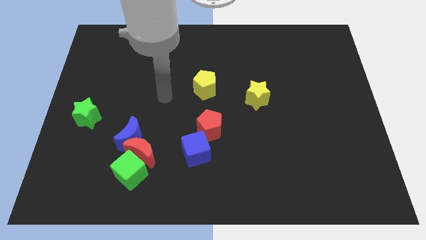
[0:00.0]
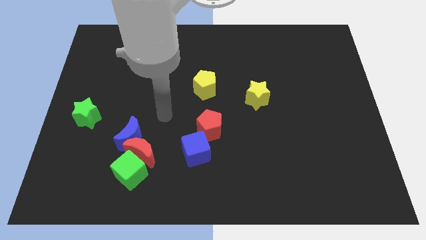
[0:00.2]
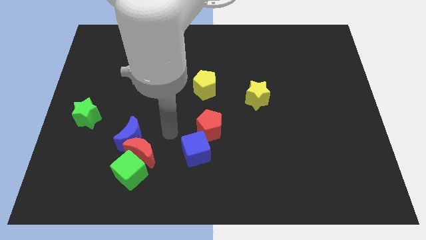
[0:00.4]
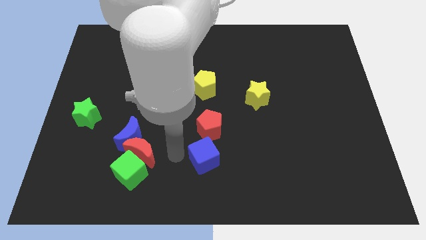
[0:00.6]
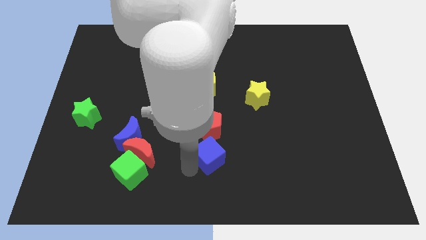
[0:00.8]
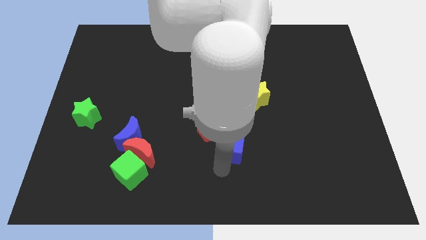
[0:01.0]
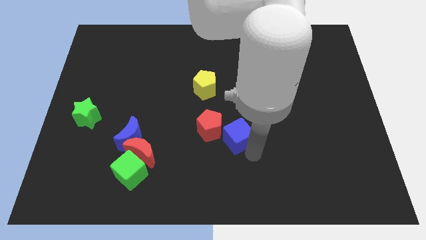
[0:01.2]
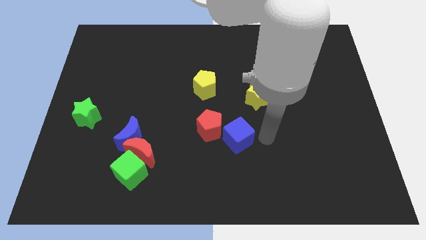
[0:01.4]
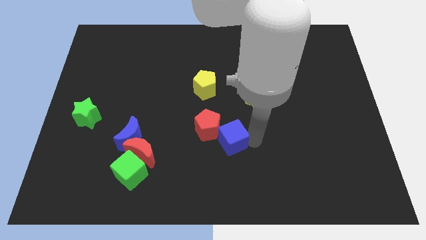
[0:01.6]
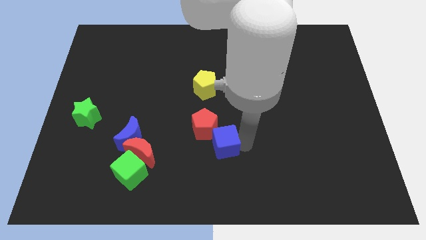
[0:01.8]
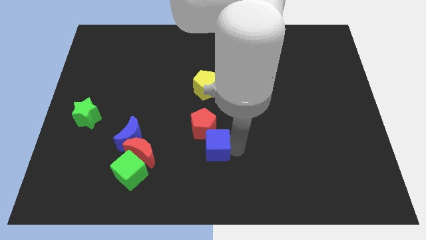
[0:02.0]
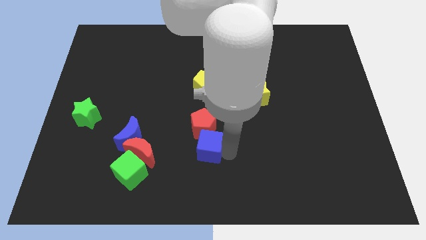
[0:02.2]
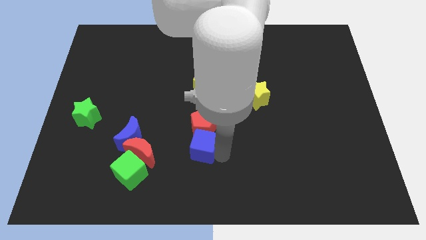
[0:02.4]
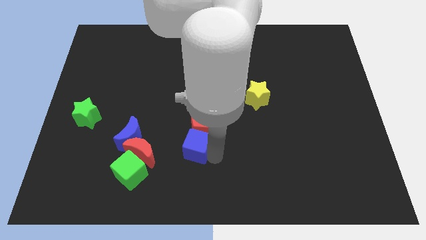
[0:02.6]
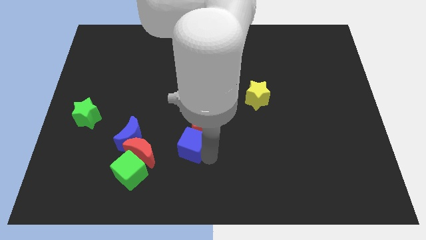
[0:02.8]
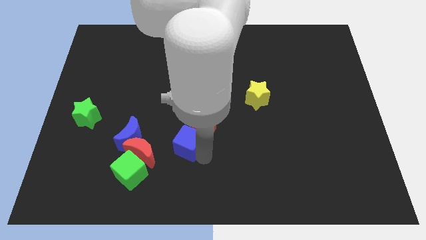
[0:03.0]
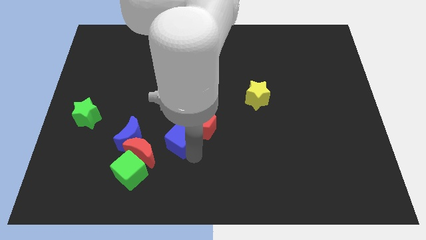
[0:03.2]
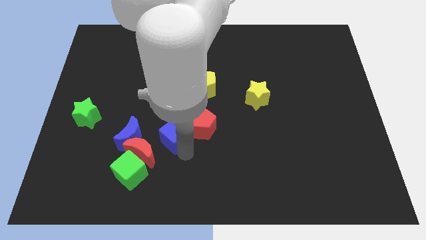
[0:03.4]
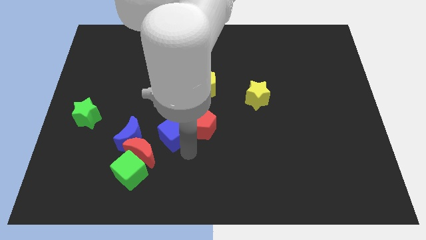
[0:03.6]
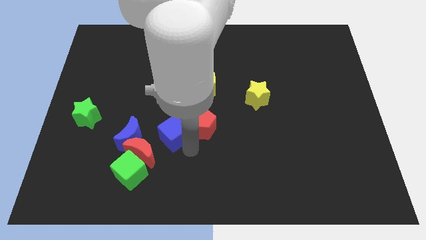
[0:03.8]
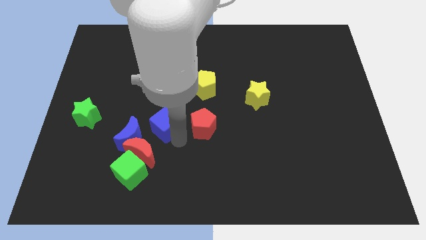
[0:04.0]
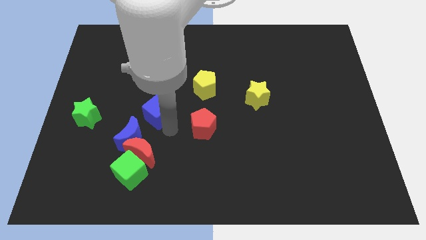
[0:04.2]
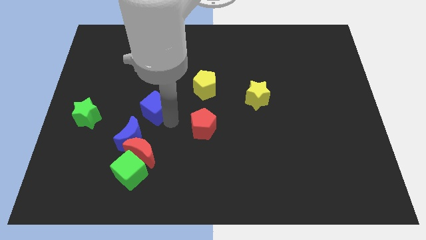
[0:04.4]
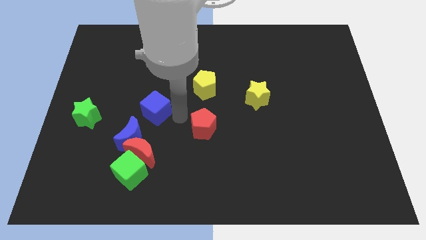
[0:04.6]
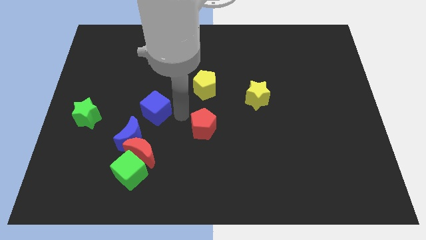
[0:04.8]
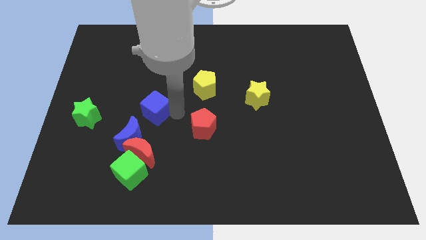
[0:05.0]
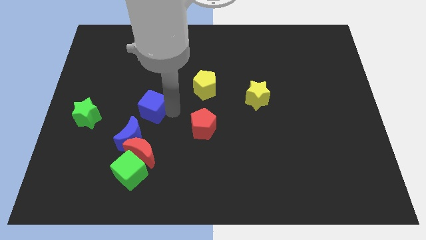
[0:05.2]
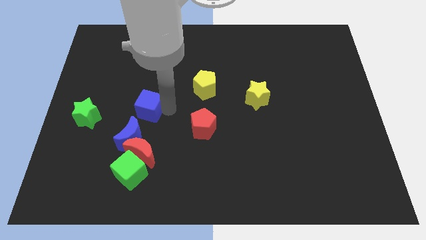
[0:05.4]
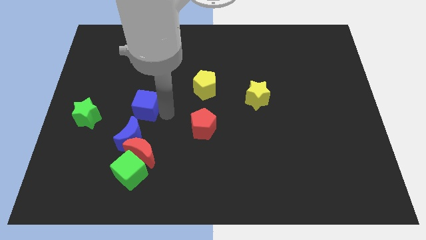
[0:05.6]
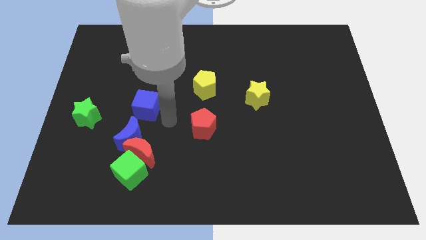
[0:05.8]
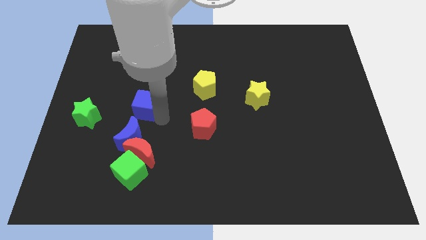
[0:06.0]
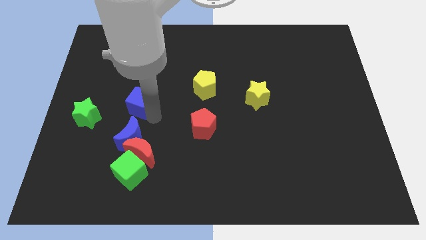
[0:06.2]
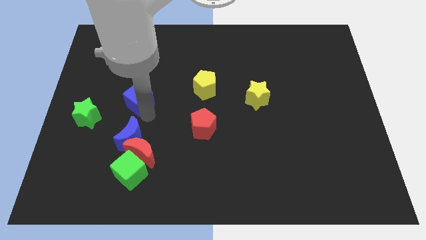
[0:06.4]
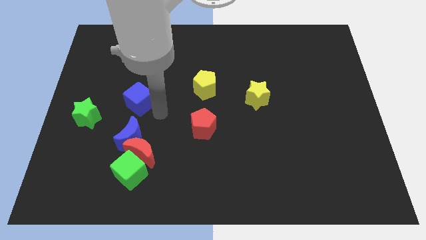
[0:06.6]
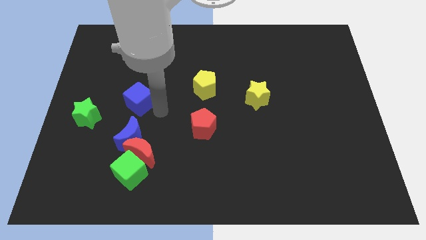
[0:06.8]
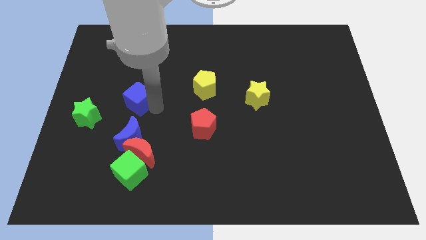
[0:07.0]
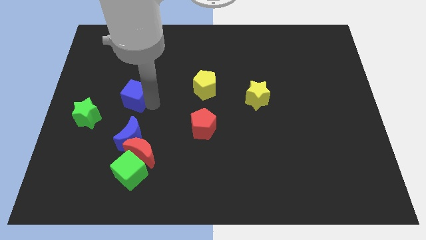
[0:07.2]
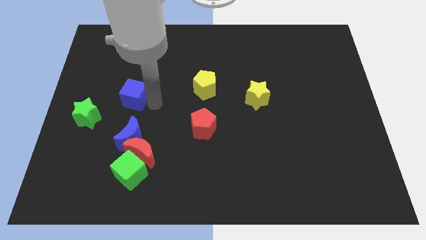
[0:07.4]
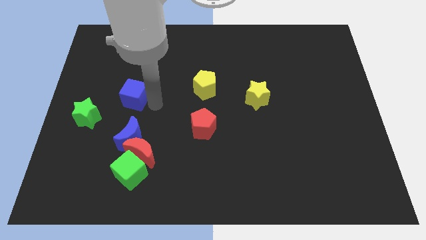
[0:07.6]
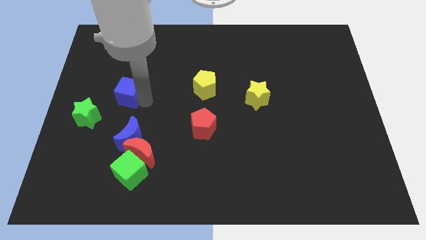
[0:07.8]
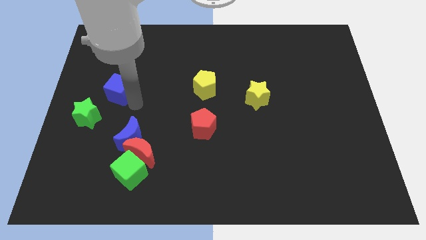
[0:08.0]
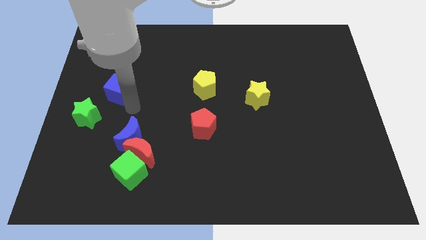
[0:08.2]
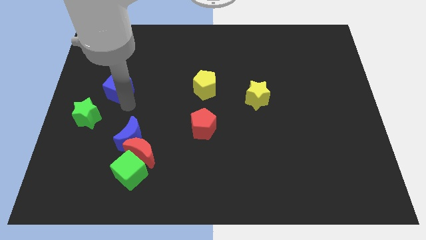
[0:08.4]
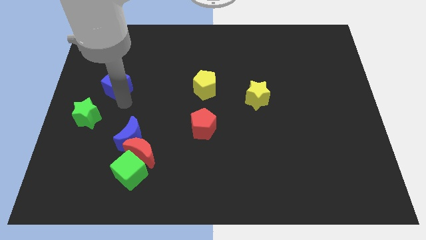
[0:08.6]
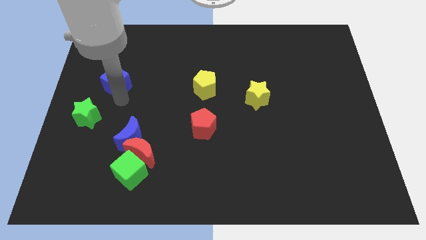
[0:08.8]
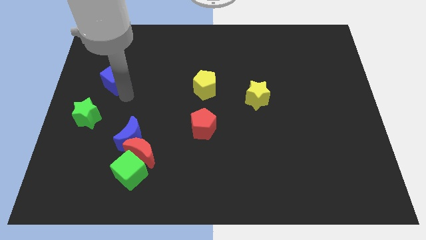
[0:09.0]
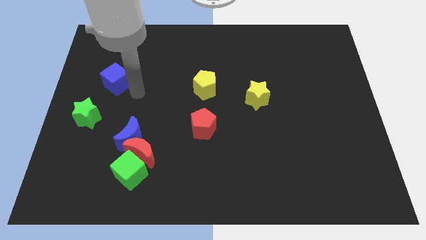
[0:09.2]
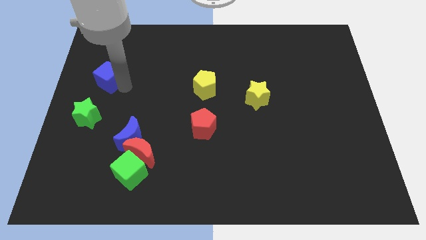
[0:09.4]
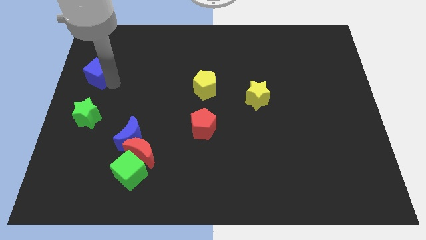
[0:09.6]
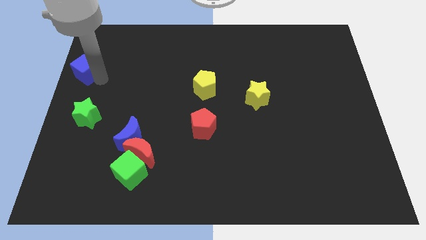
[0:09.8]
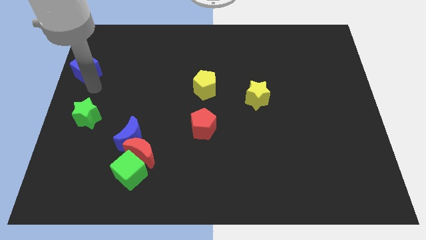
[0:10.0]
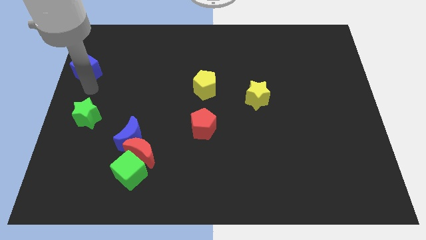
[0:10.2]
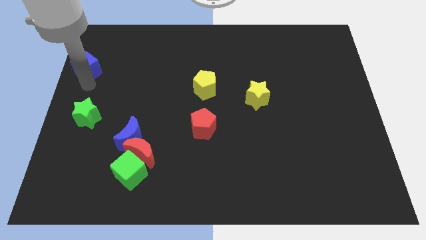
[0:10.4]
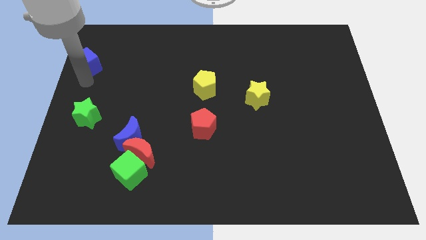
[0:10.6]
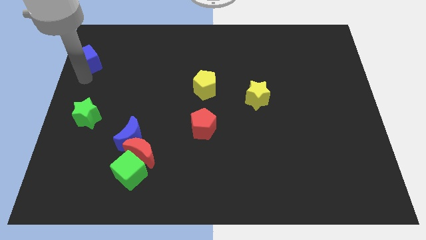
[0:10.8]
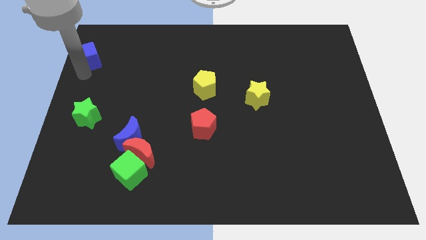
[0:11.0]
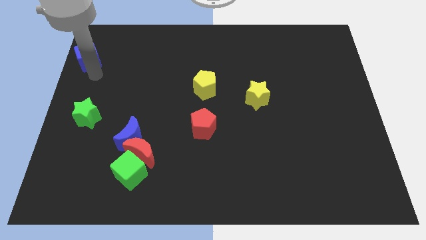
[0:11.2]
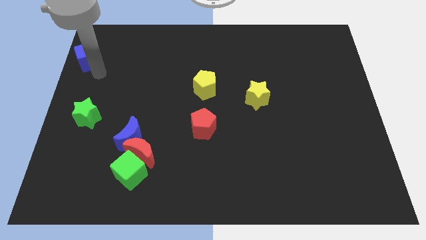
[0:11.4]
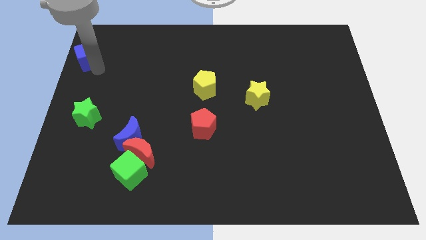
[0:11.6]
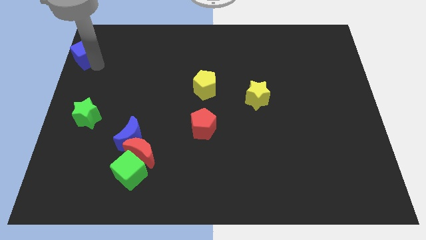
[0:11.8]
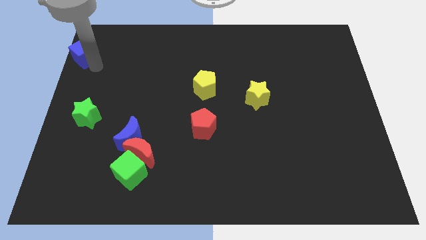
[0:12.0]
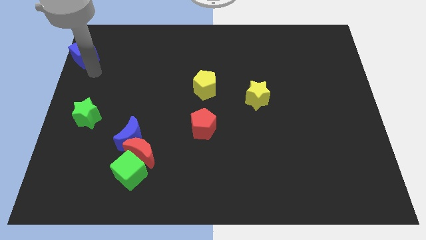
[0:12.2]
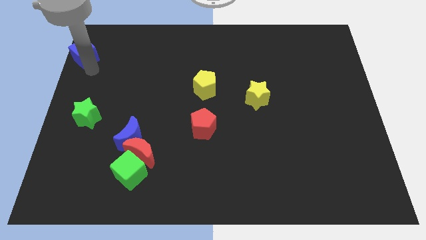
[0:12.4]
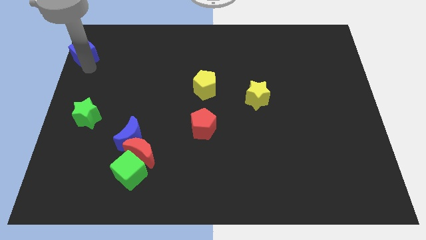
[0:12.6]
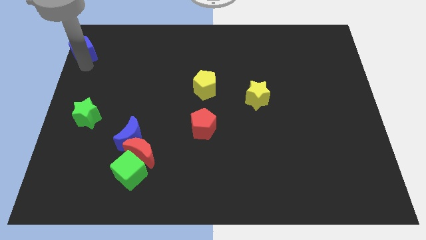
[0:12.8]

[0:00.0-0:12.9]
slide the blue cube to the top left

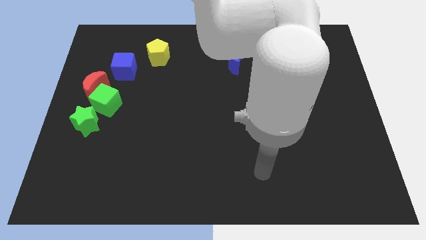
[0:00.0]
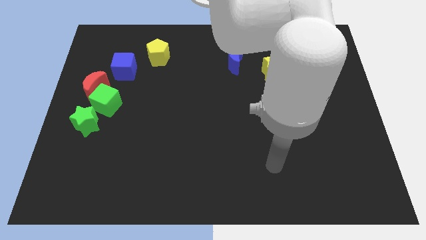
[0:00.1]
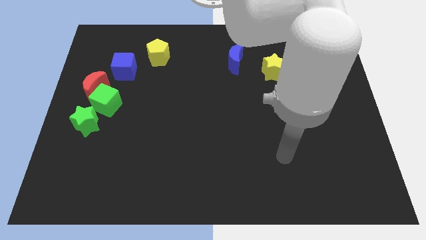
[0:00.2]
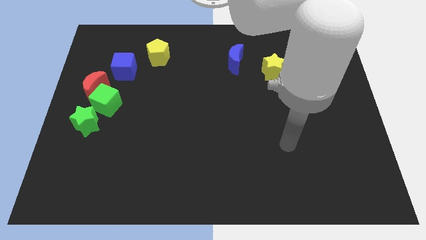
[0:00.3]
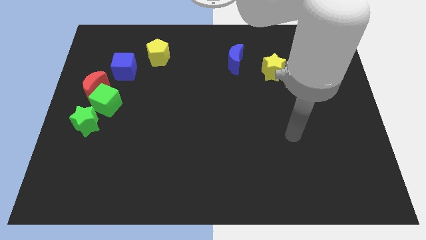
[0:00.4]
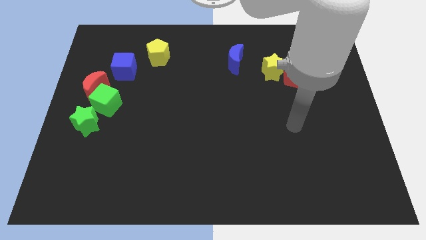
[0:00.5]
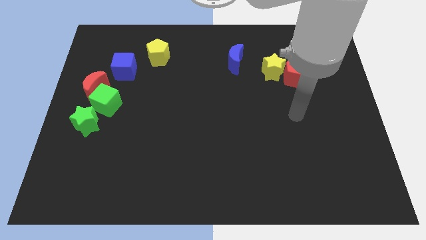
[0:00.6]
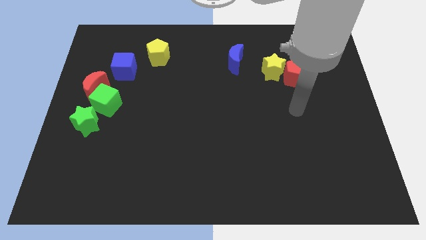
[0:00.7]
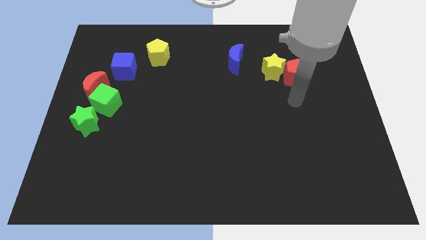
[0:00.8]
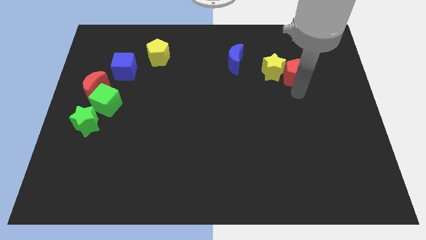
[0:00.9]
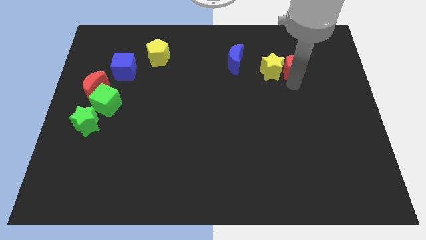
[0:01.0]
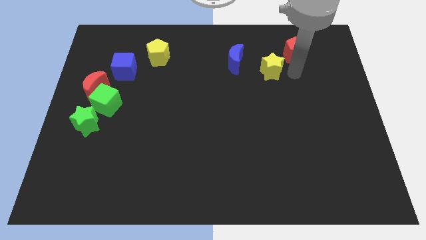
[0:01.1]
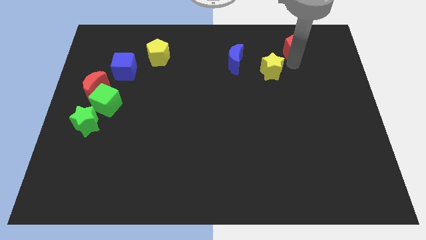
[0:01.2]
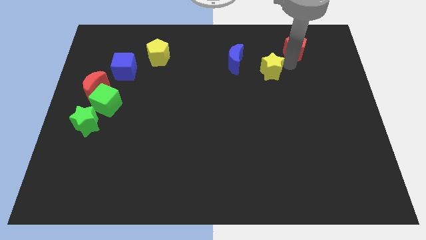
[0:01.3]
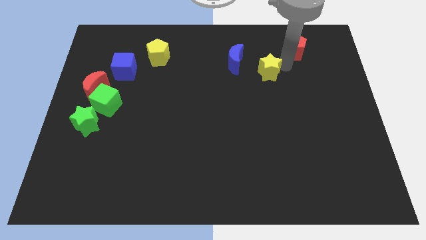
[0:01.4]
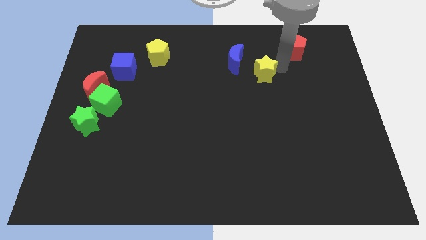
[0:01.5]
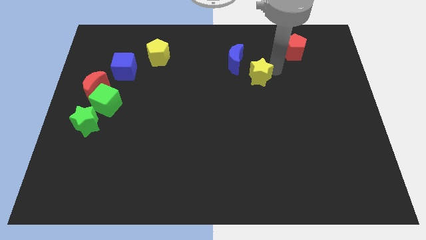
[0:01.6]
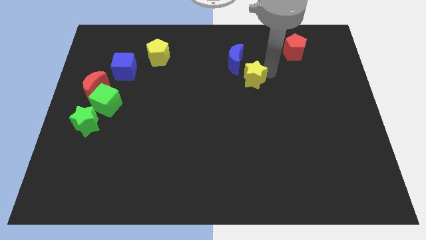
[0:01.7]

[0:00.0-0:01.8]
put the yellow star to the center of the board
